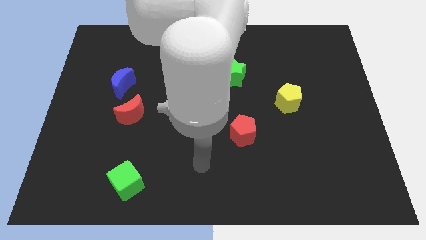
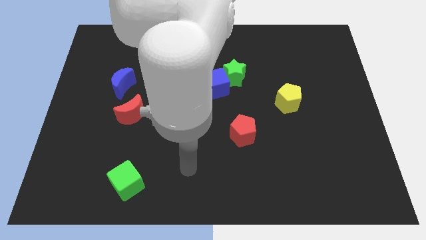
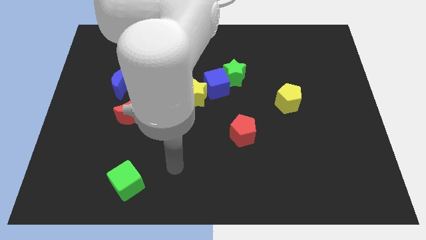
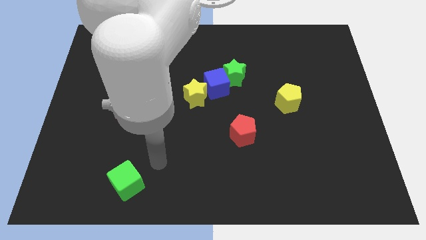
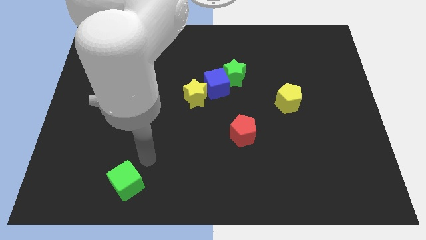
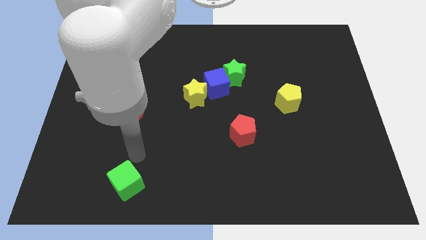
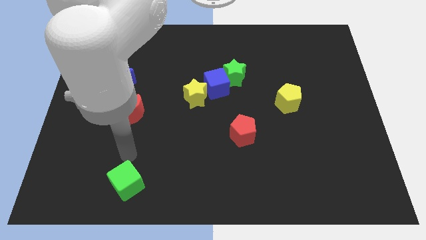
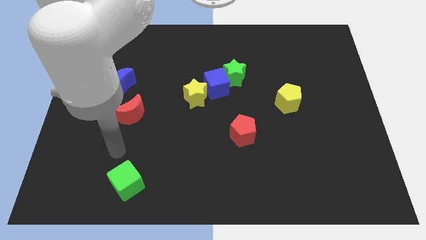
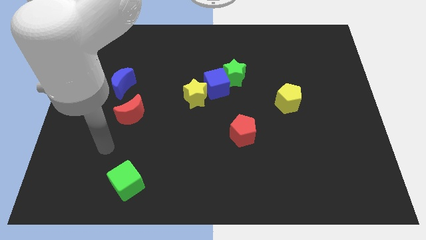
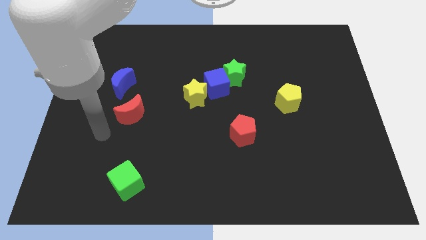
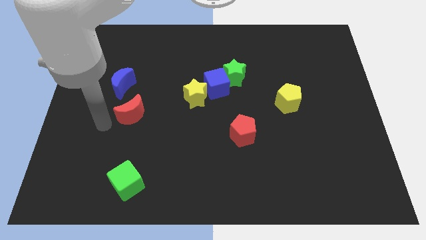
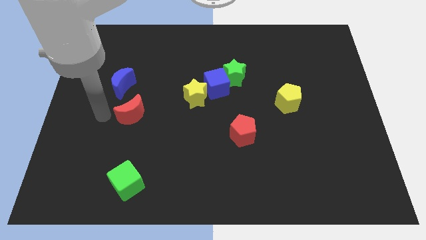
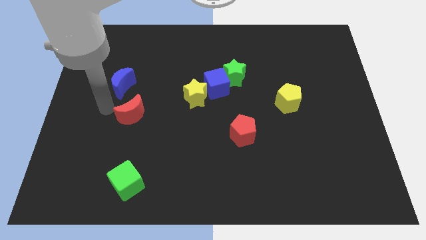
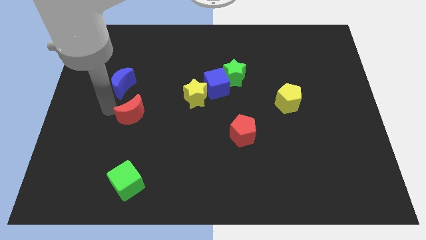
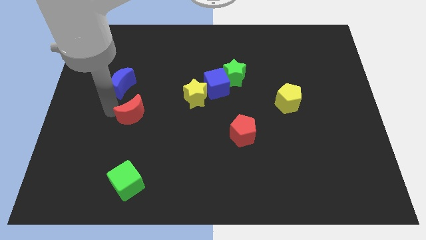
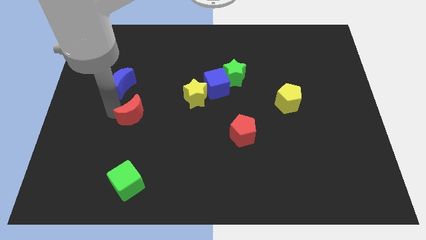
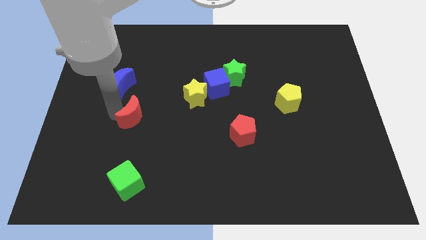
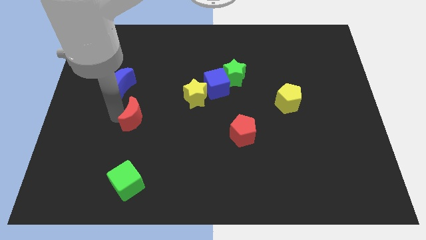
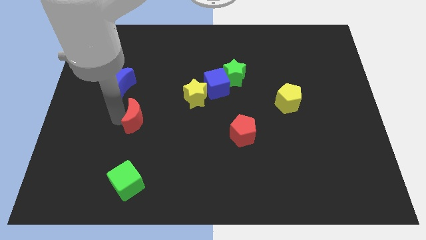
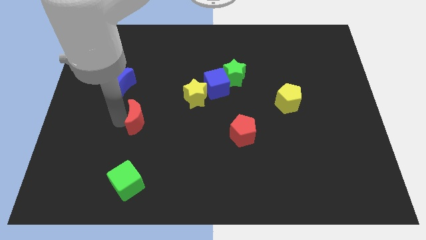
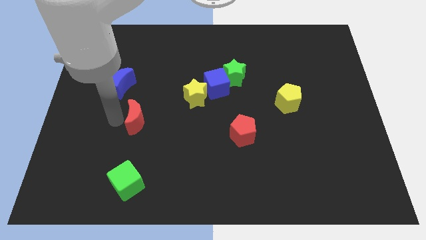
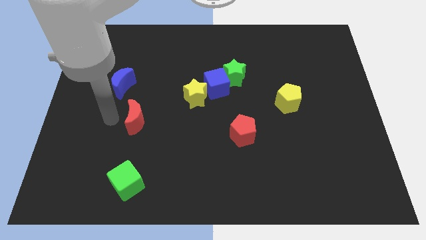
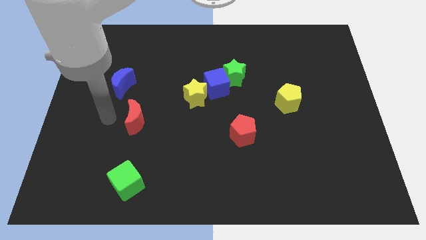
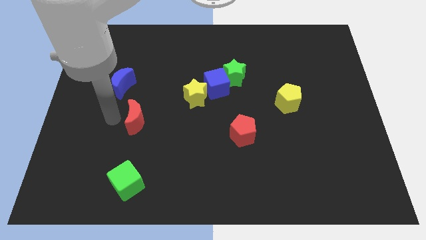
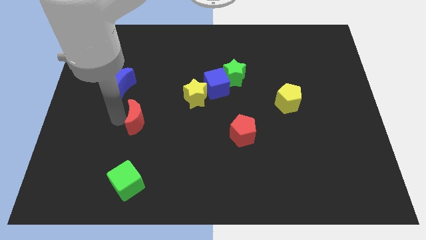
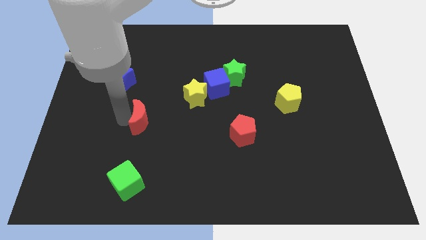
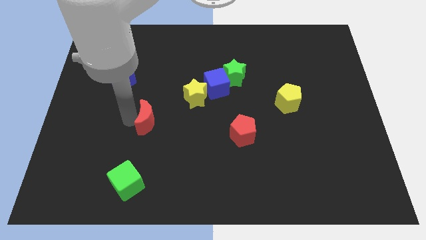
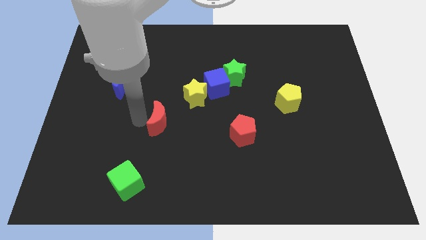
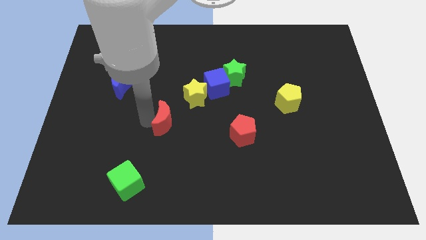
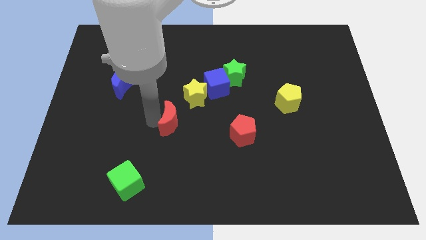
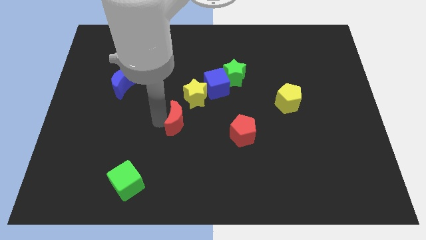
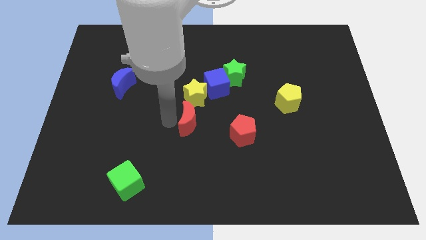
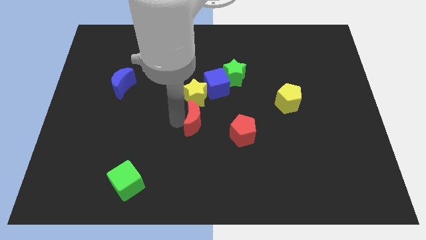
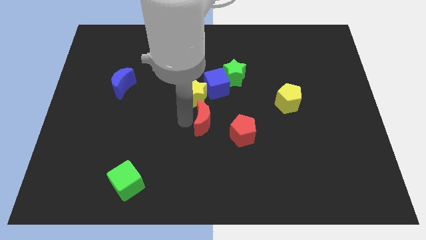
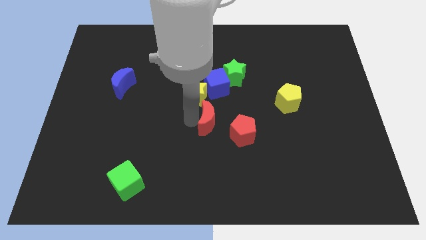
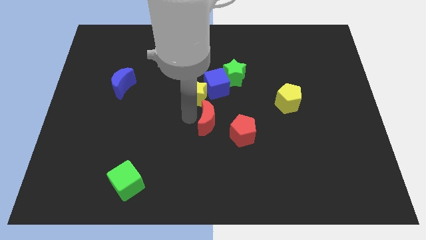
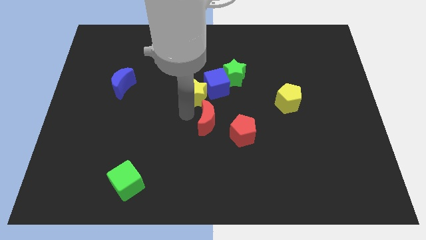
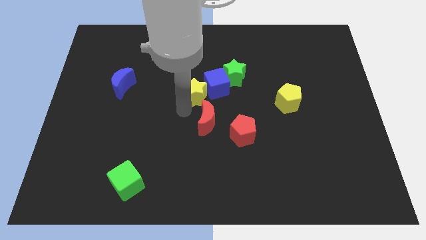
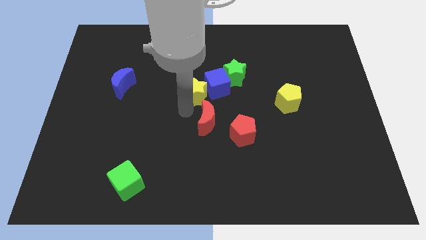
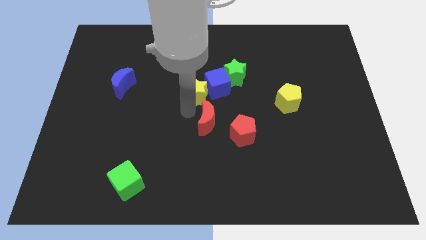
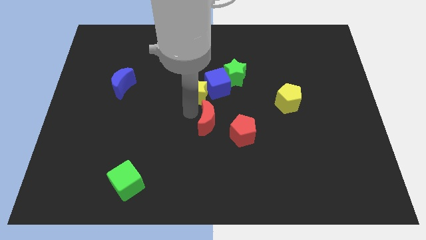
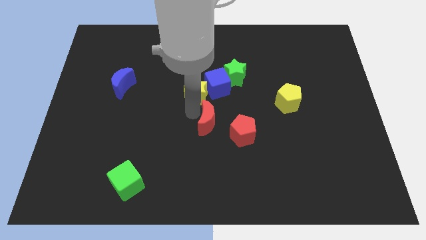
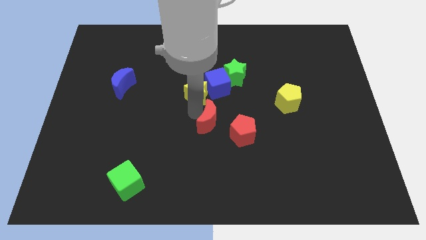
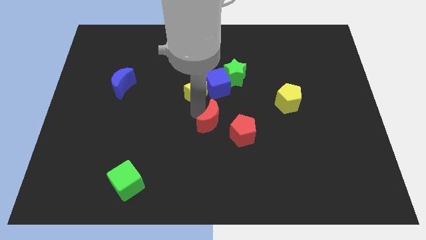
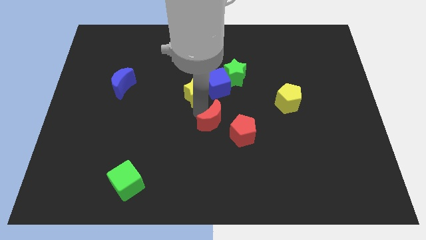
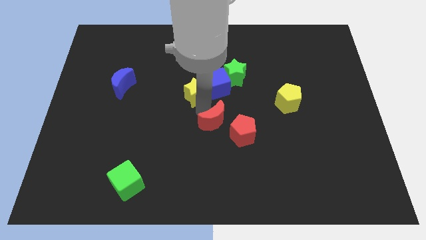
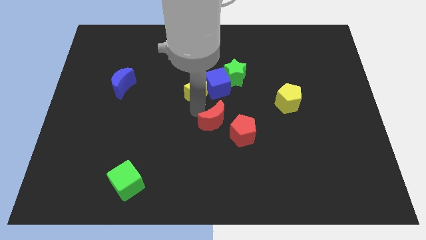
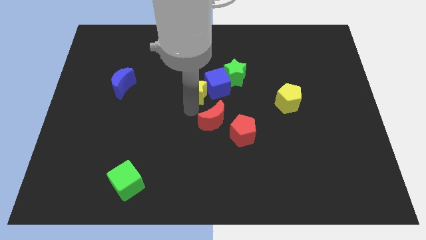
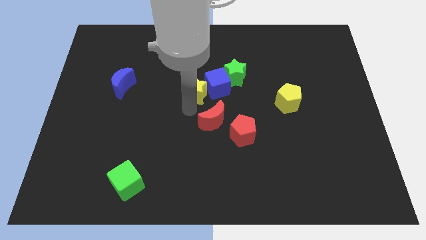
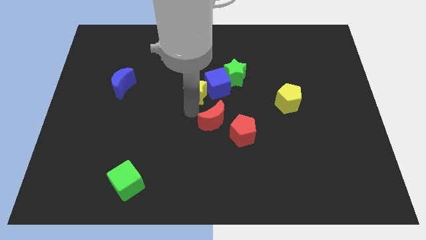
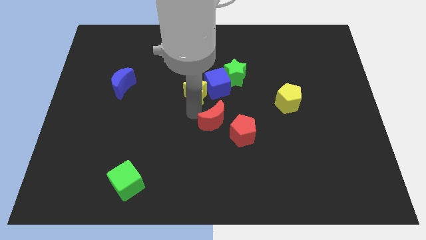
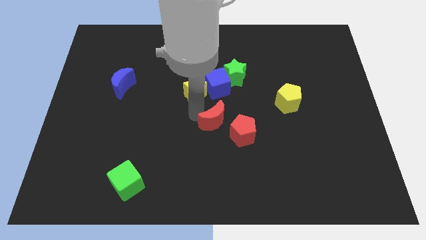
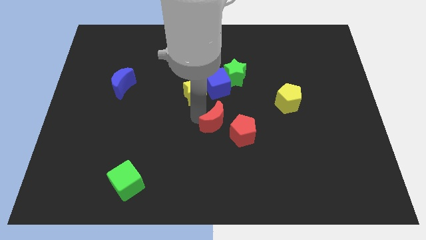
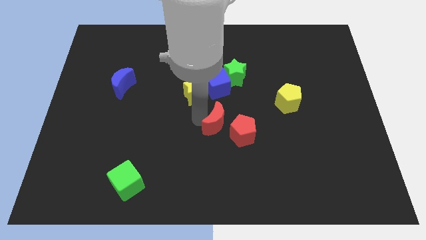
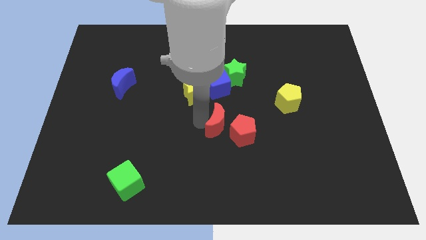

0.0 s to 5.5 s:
move the red moon towards the red pentagon

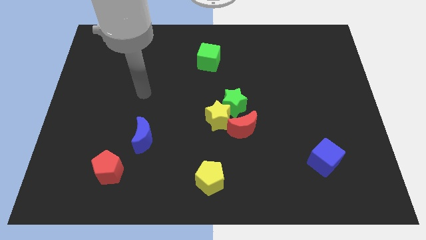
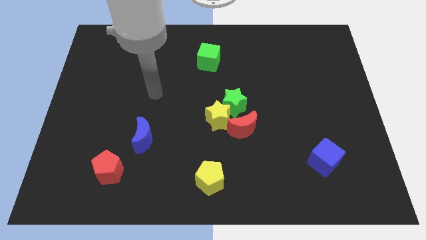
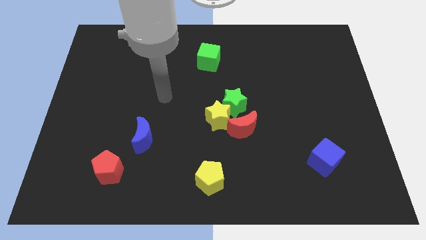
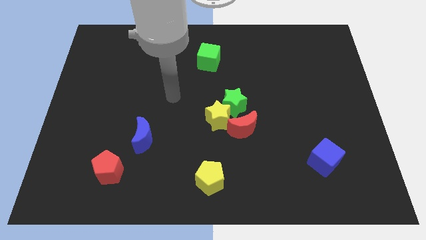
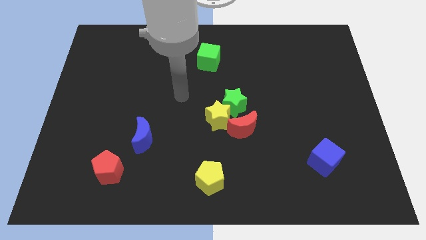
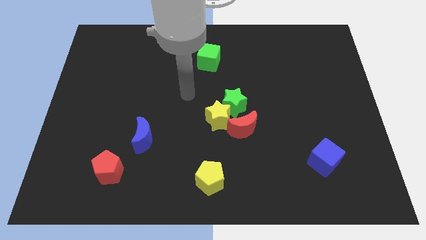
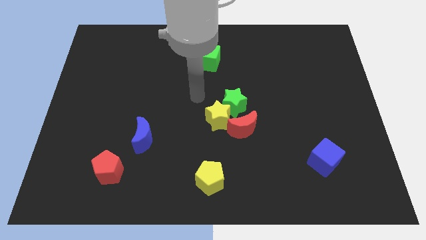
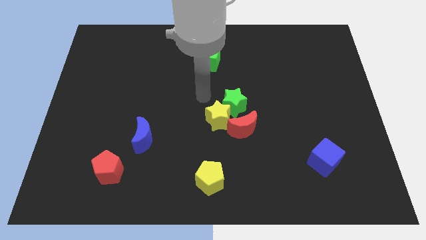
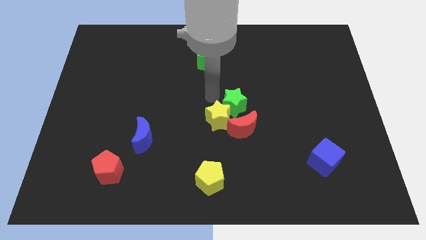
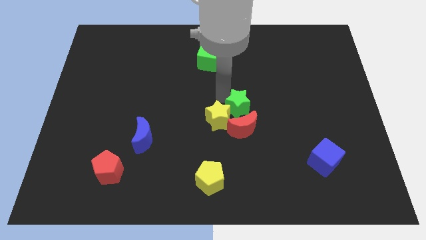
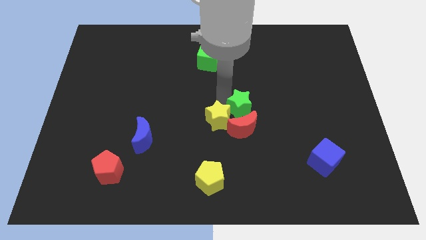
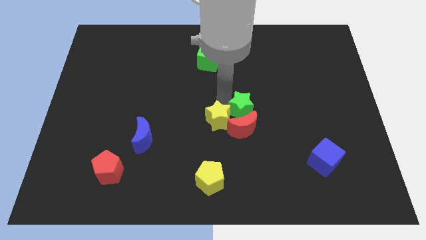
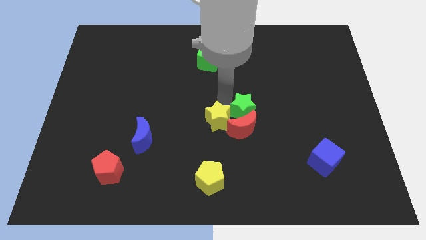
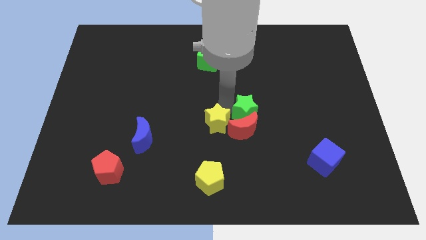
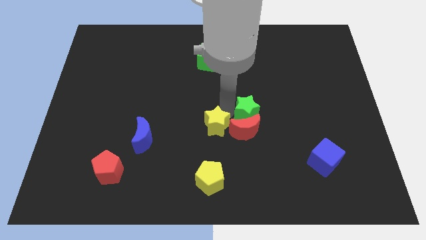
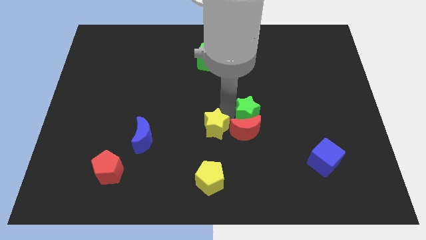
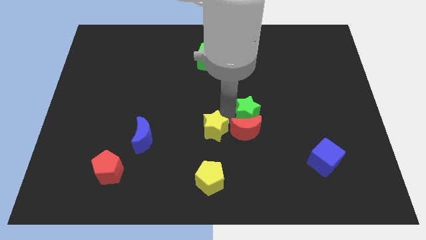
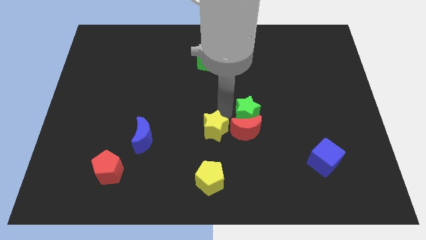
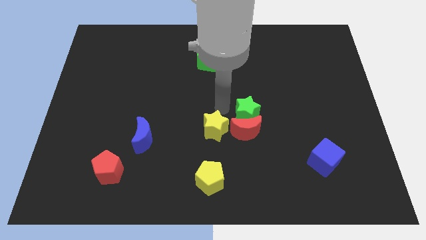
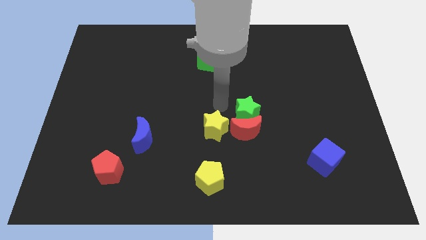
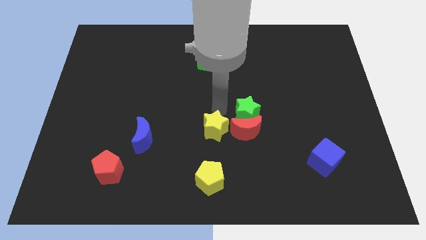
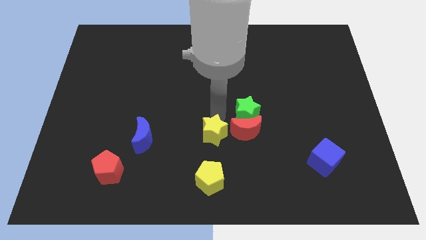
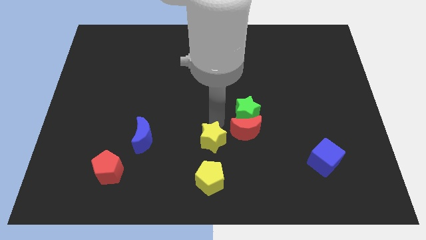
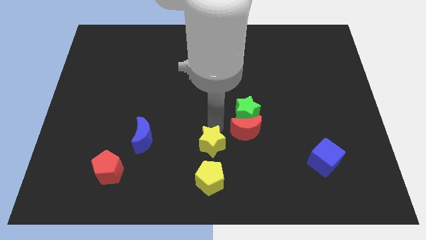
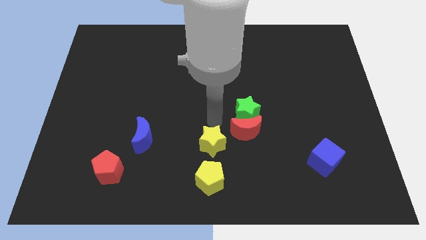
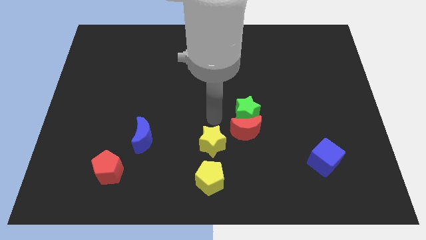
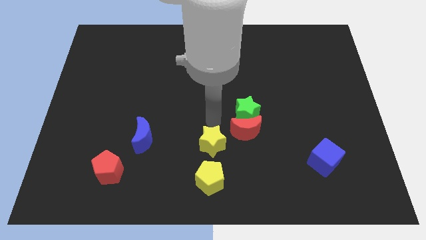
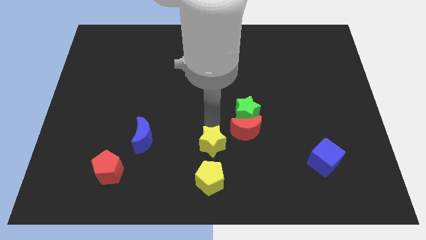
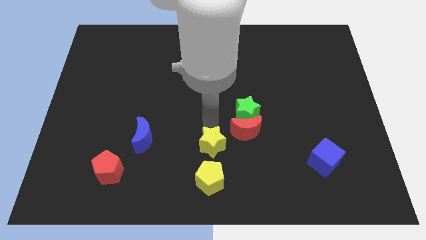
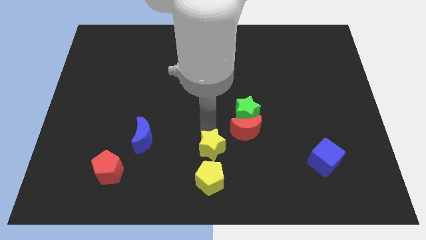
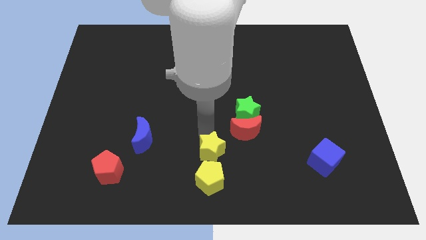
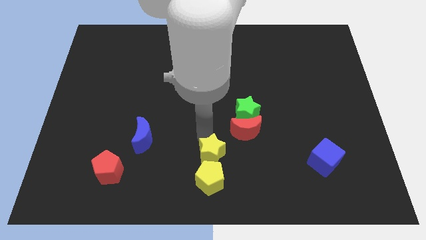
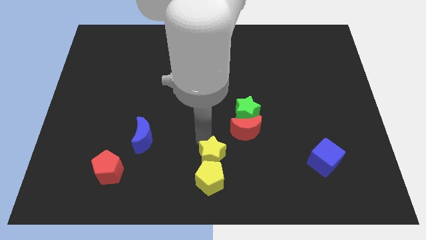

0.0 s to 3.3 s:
put the yellow star towards the yellow pentagon
